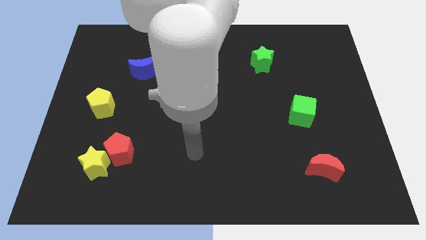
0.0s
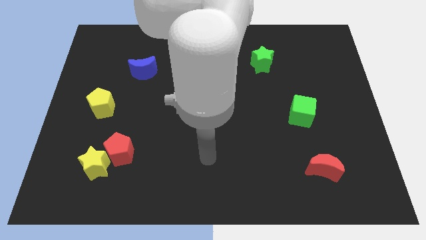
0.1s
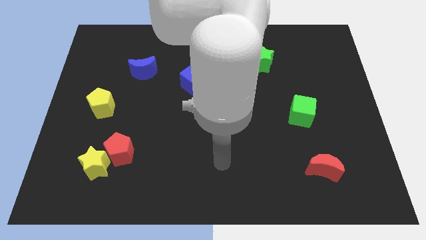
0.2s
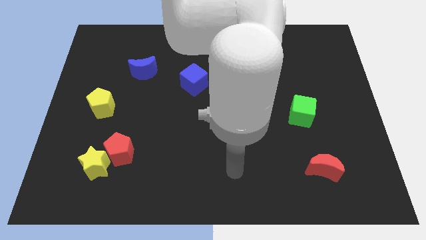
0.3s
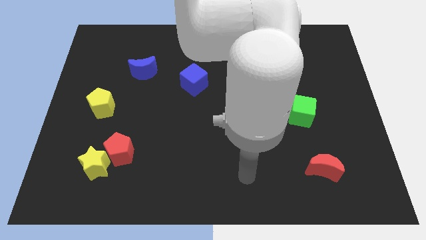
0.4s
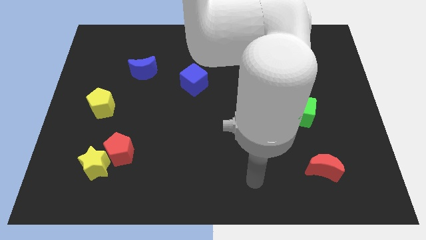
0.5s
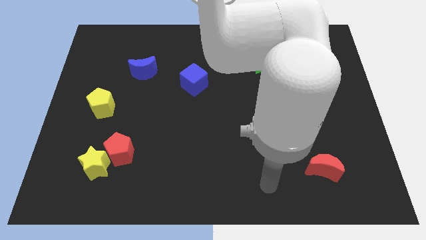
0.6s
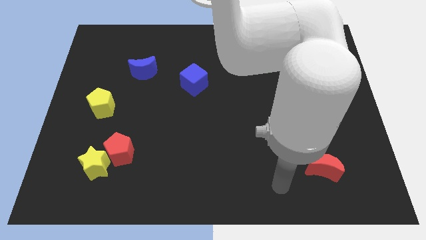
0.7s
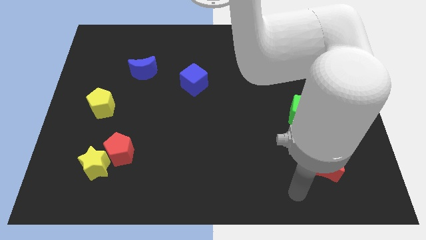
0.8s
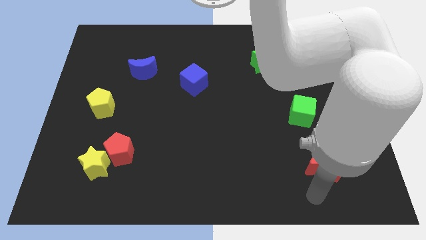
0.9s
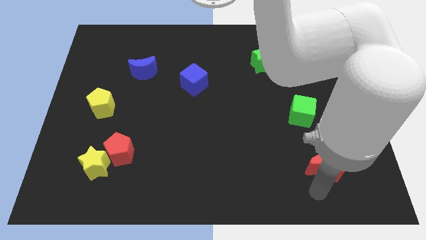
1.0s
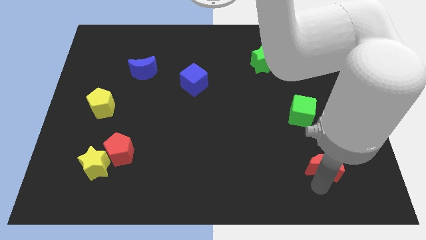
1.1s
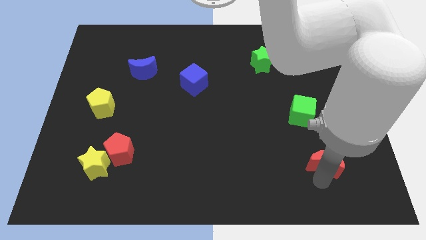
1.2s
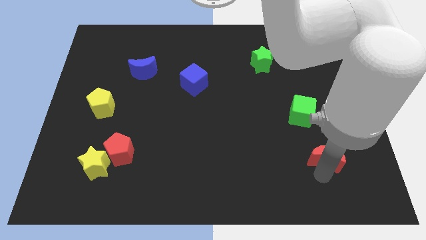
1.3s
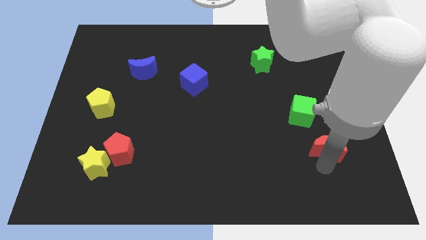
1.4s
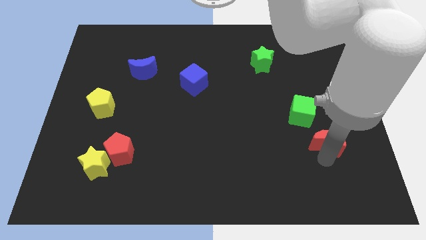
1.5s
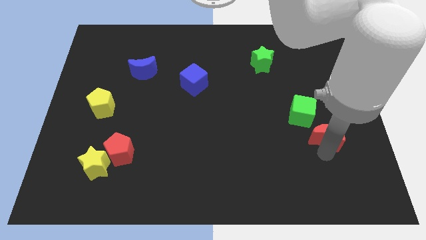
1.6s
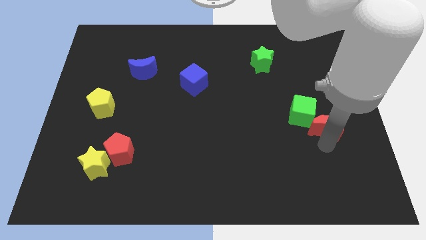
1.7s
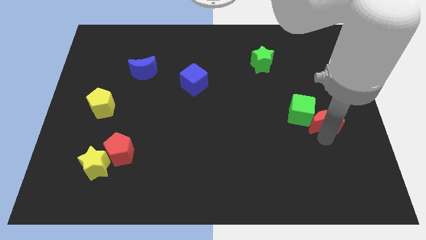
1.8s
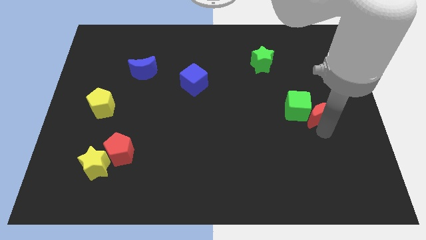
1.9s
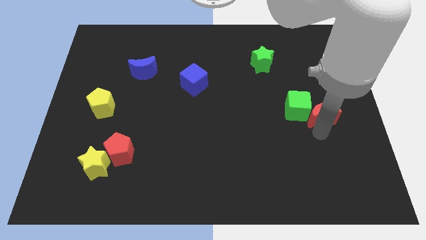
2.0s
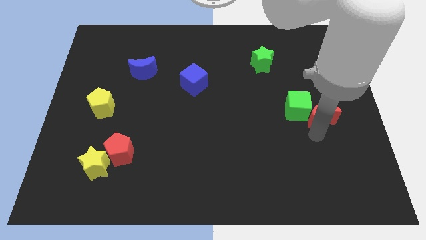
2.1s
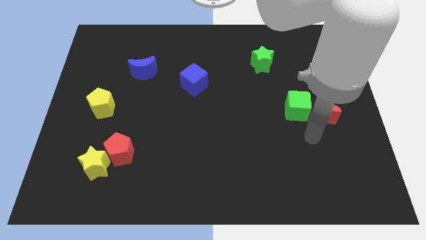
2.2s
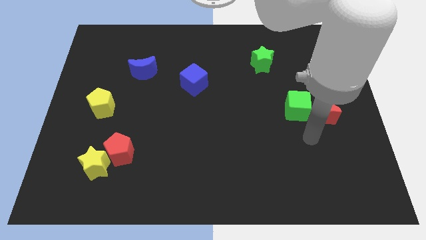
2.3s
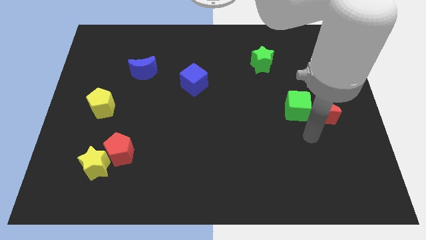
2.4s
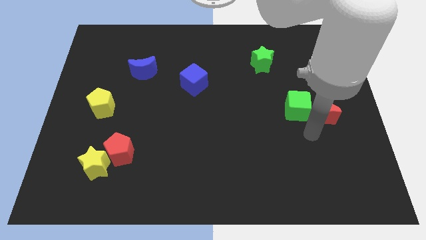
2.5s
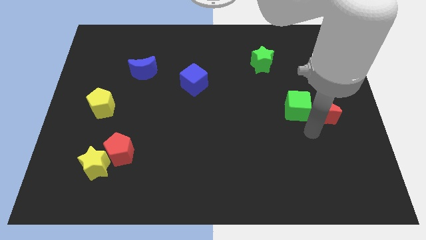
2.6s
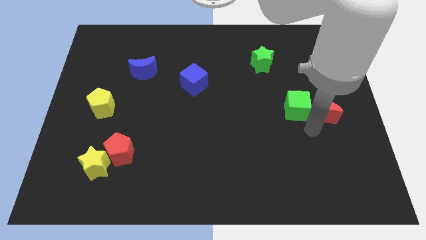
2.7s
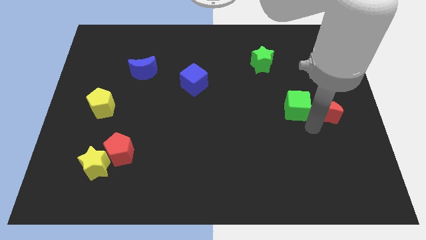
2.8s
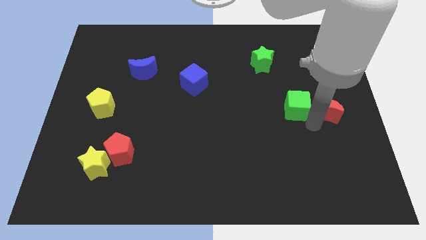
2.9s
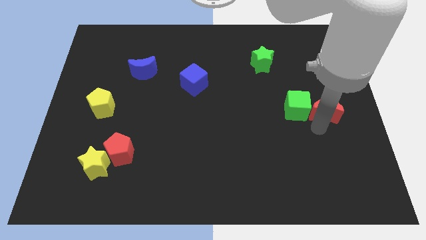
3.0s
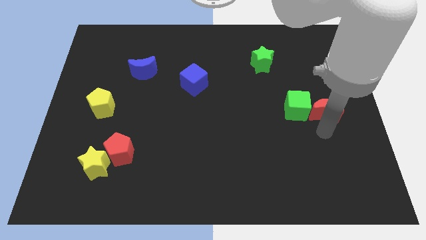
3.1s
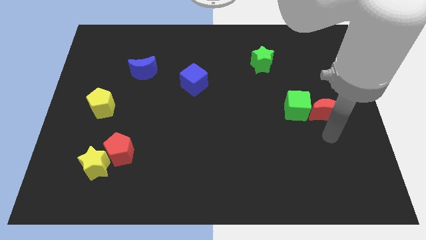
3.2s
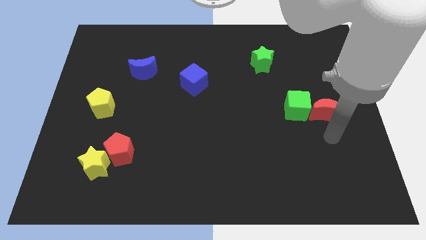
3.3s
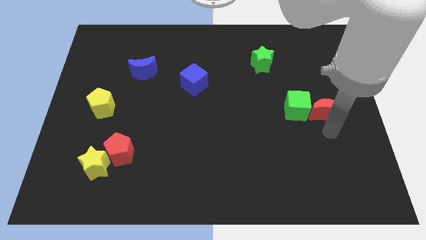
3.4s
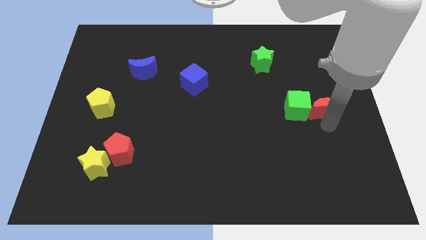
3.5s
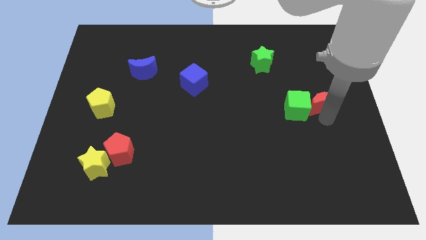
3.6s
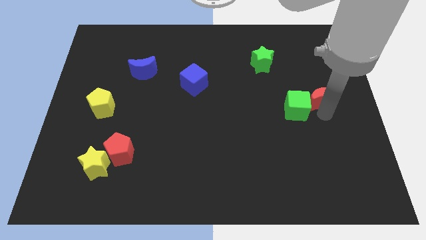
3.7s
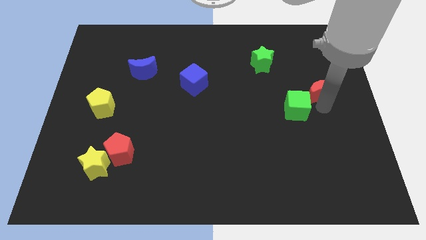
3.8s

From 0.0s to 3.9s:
move the red moon upwards

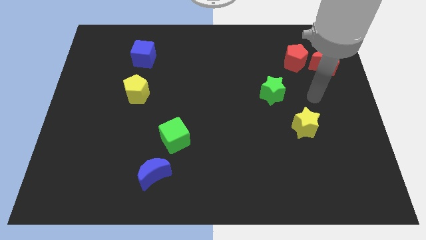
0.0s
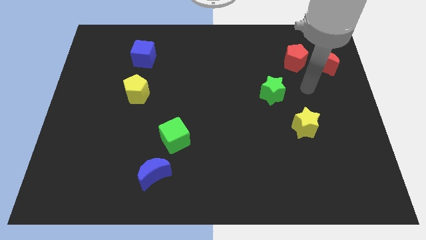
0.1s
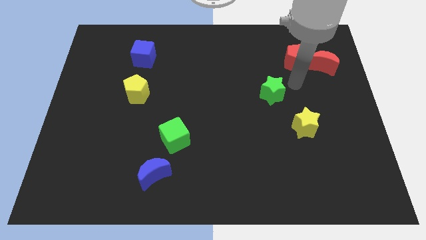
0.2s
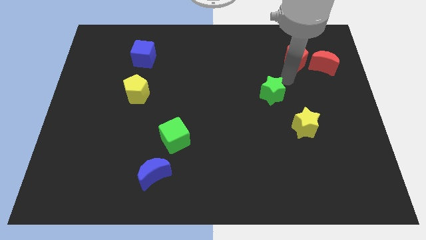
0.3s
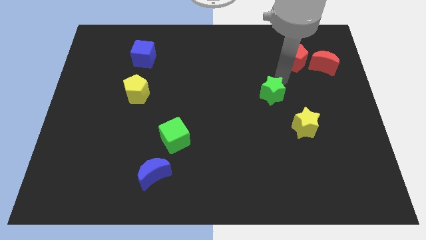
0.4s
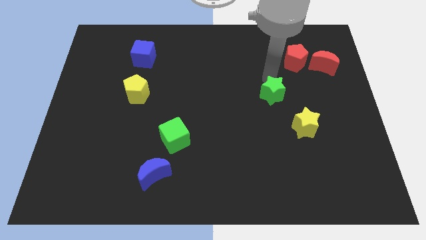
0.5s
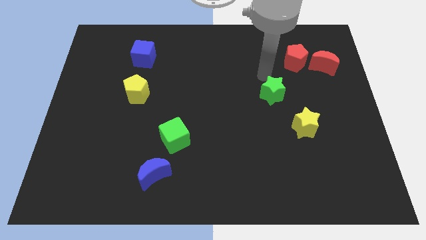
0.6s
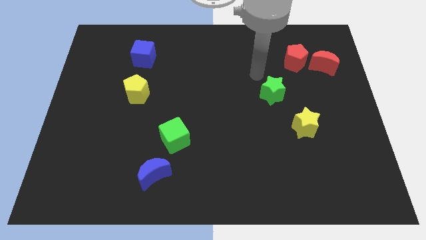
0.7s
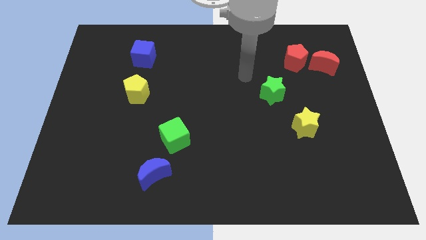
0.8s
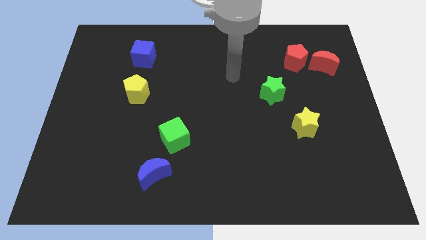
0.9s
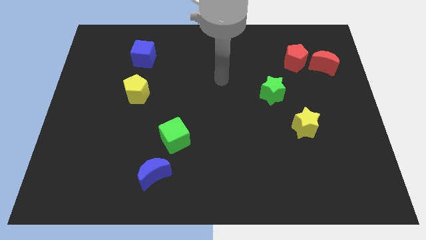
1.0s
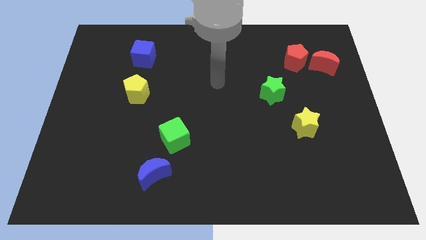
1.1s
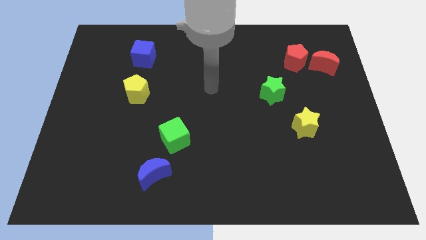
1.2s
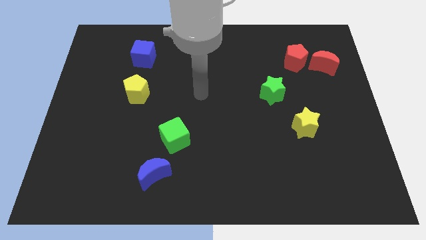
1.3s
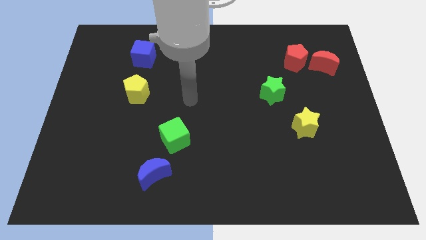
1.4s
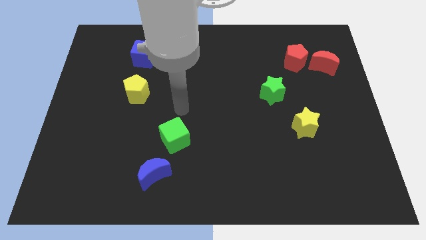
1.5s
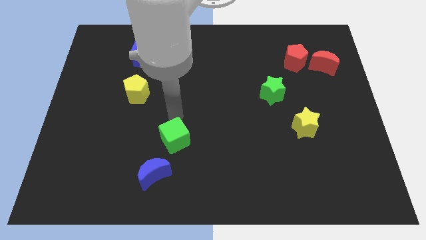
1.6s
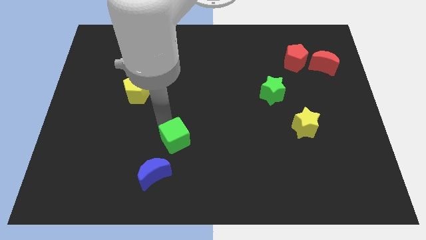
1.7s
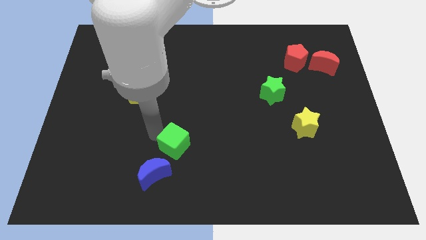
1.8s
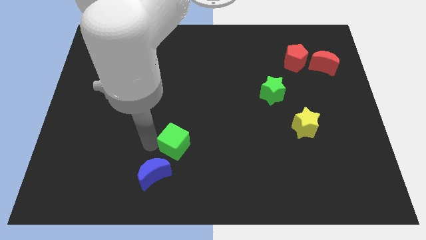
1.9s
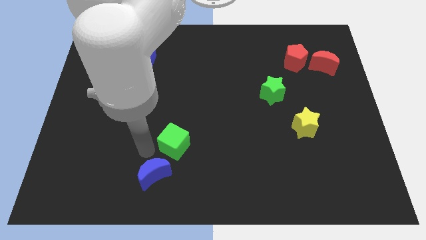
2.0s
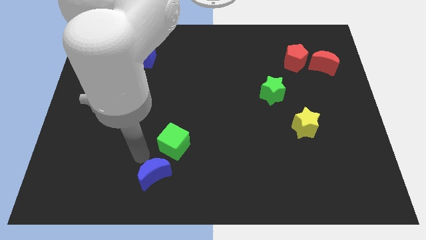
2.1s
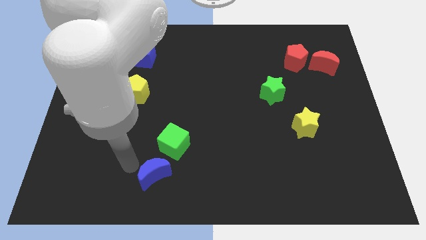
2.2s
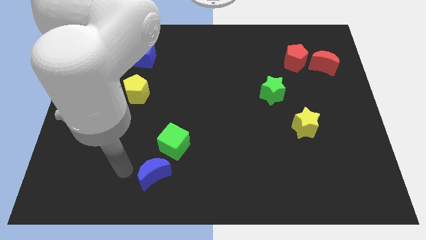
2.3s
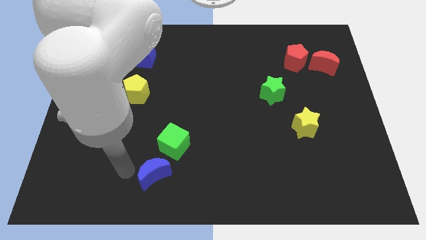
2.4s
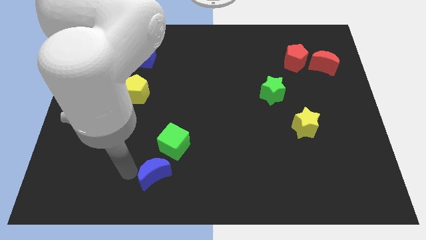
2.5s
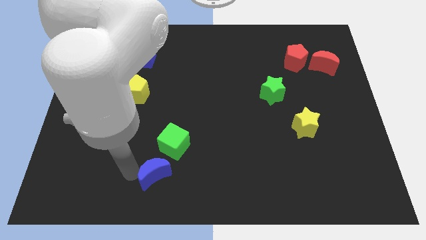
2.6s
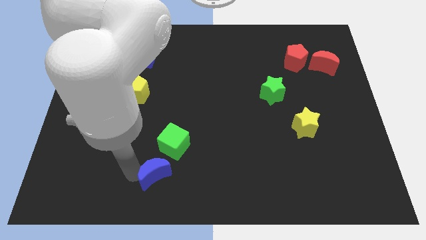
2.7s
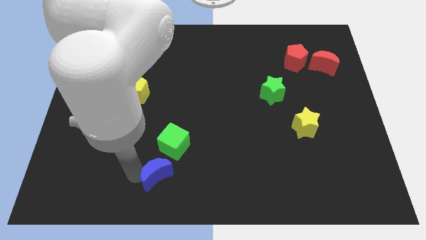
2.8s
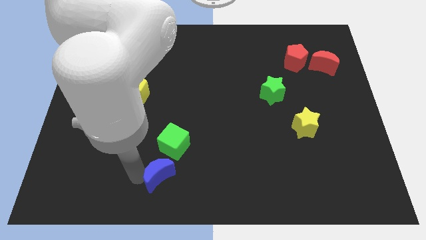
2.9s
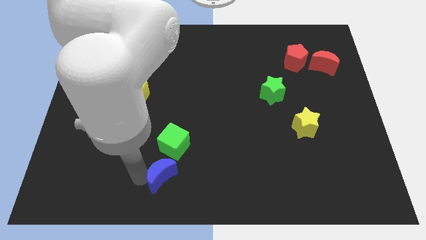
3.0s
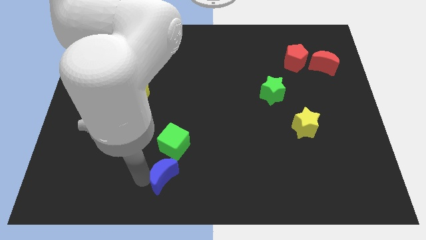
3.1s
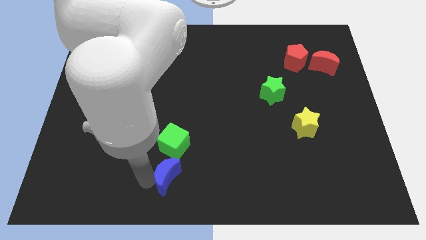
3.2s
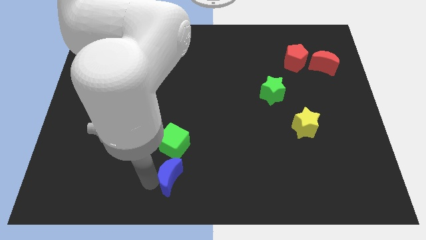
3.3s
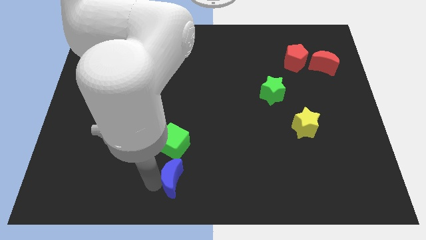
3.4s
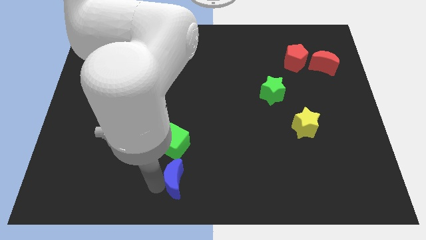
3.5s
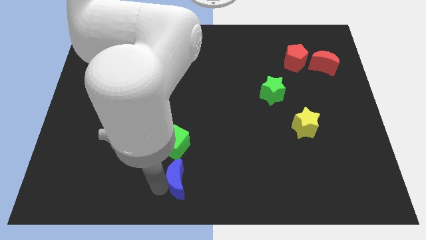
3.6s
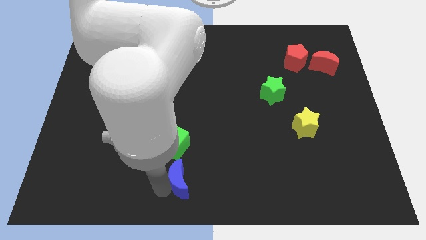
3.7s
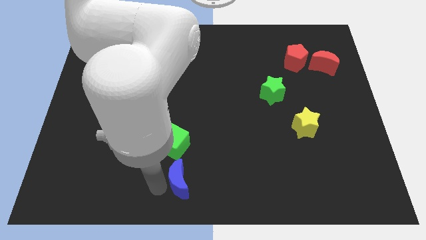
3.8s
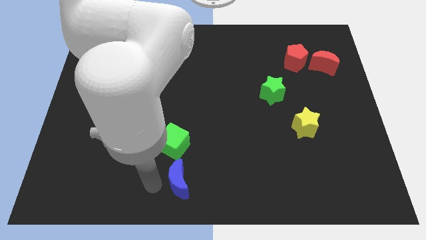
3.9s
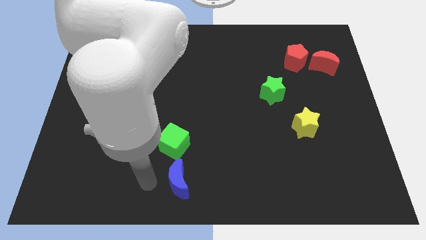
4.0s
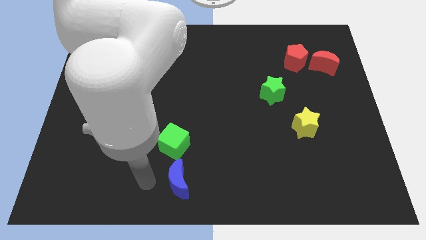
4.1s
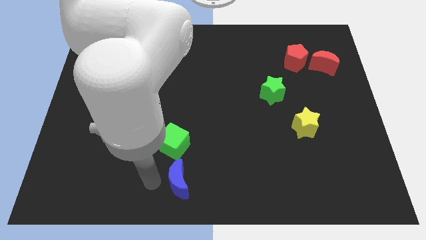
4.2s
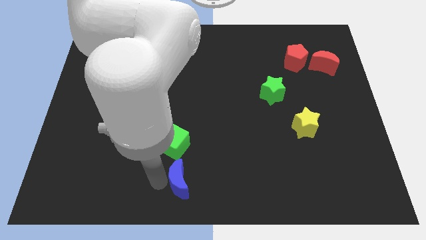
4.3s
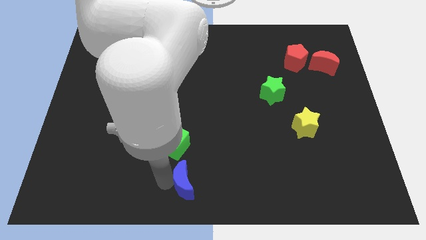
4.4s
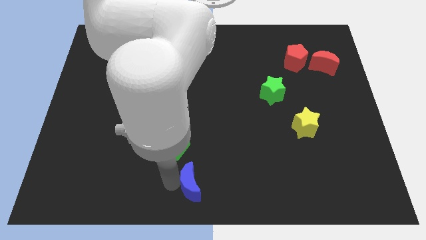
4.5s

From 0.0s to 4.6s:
slightly move the blue moon to the right
